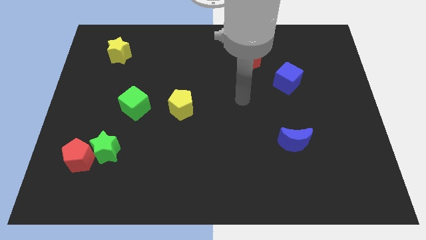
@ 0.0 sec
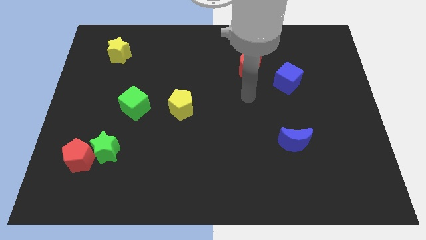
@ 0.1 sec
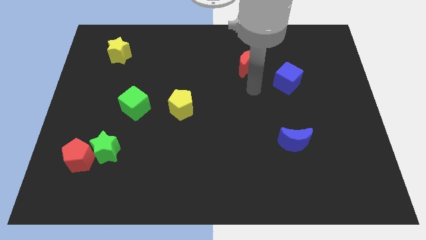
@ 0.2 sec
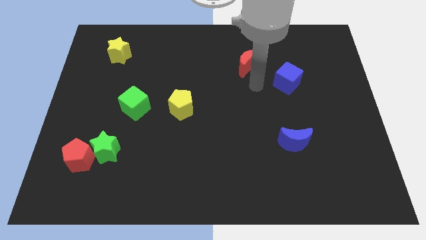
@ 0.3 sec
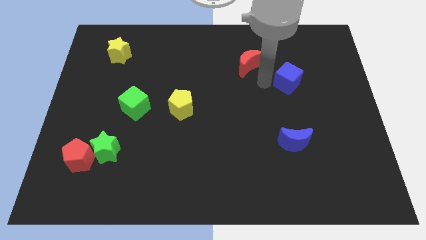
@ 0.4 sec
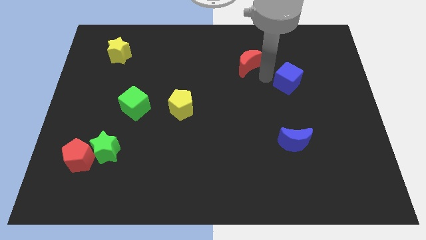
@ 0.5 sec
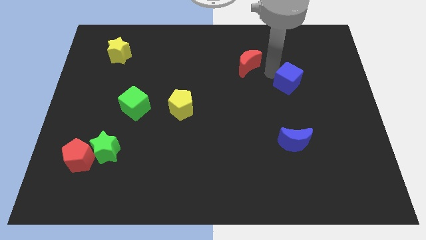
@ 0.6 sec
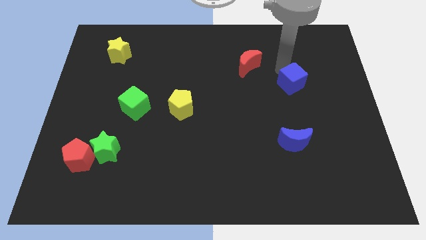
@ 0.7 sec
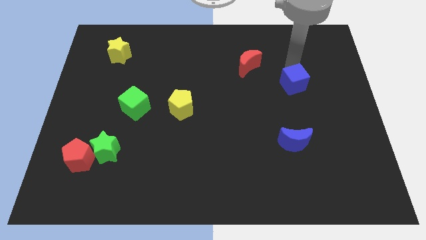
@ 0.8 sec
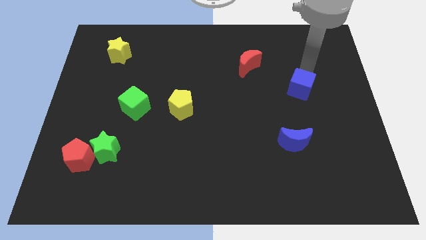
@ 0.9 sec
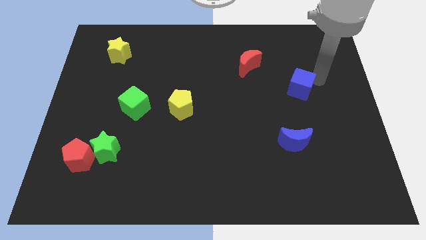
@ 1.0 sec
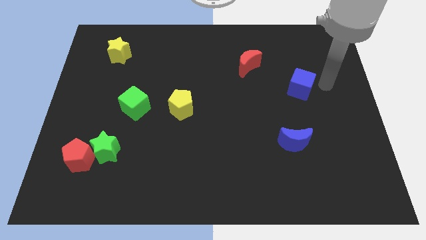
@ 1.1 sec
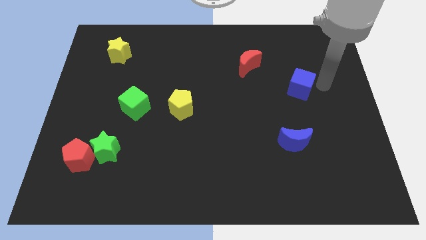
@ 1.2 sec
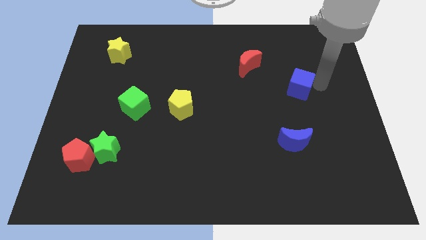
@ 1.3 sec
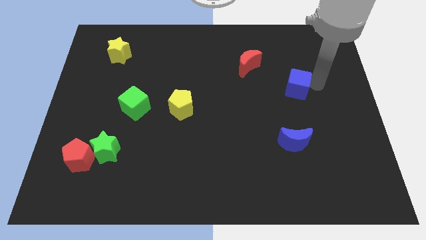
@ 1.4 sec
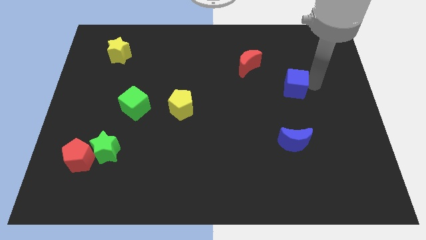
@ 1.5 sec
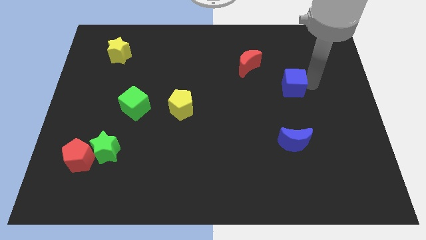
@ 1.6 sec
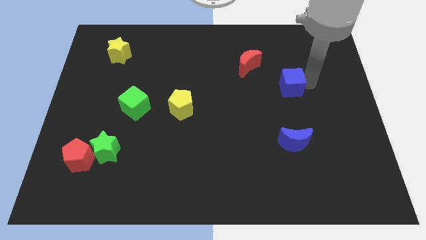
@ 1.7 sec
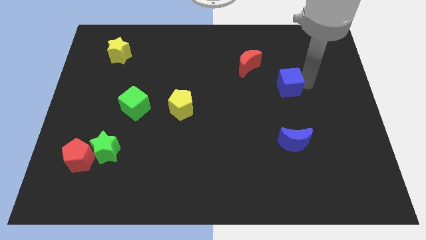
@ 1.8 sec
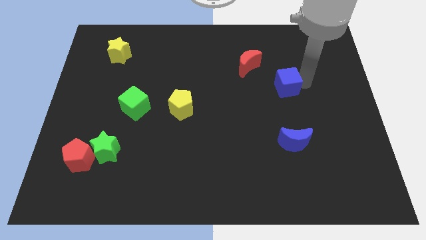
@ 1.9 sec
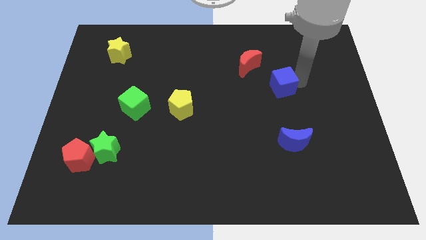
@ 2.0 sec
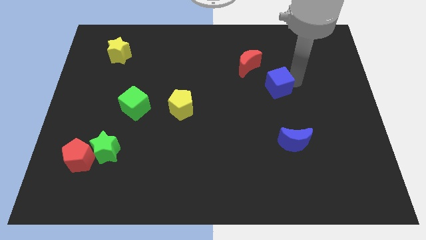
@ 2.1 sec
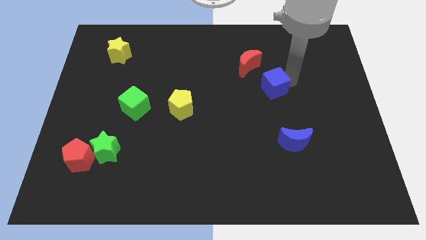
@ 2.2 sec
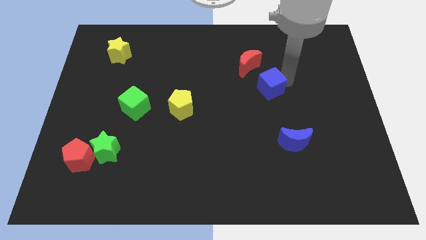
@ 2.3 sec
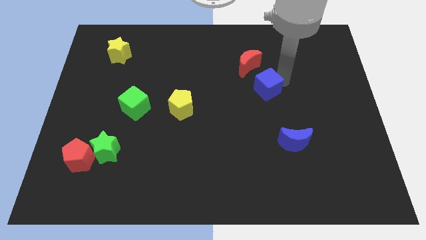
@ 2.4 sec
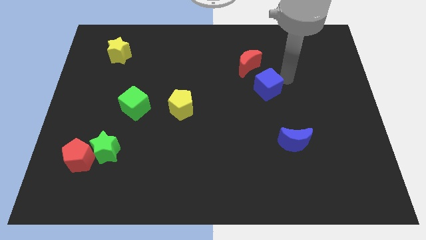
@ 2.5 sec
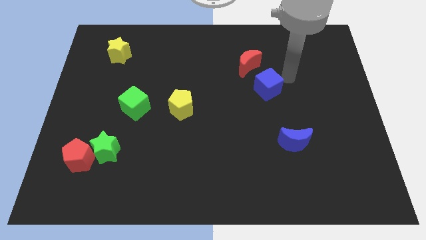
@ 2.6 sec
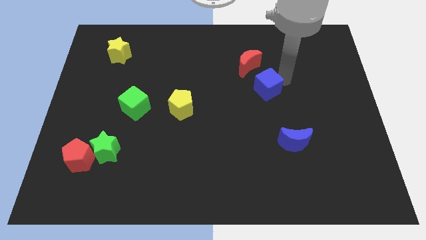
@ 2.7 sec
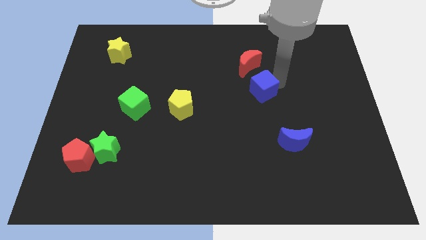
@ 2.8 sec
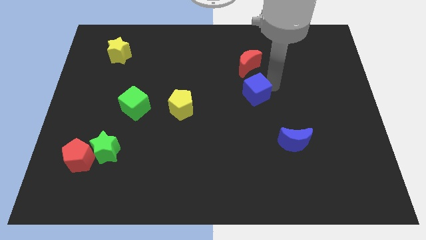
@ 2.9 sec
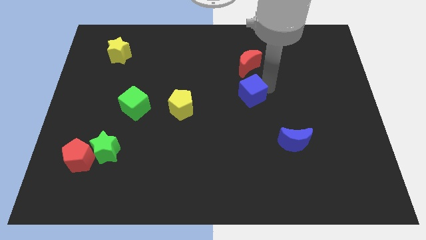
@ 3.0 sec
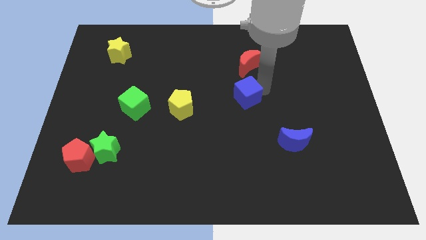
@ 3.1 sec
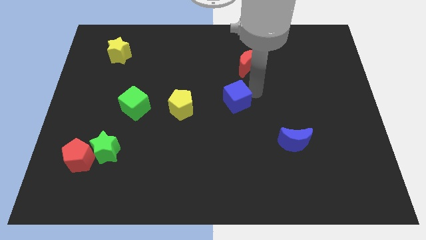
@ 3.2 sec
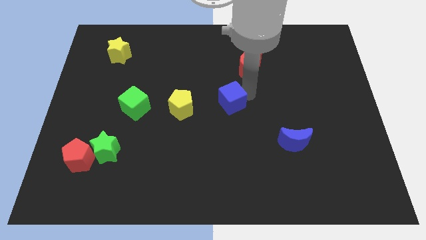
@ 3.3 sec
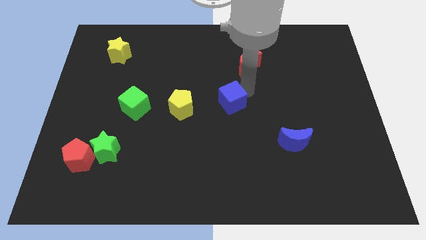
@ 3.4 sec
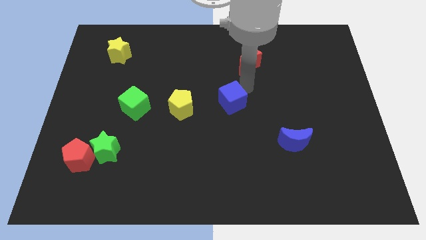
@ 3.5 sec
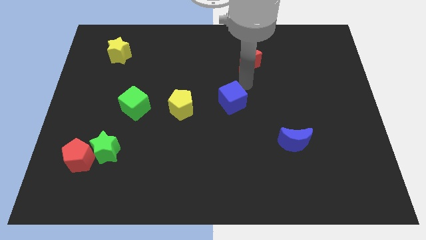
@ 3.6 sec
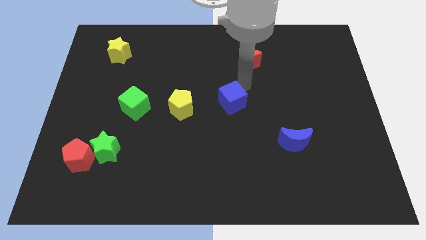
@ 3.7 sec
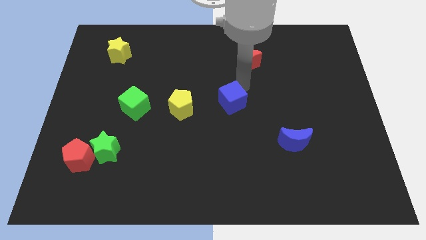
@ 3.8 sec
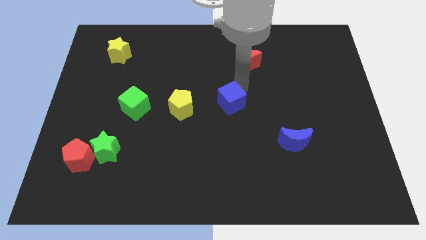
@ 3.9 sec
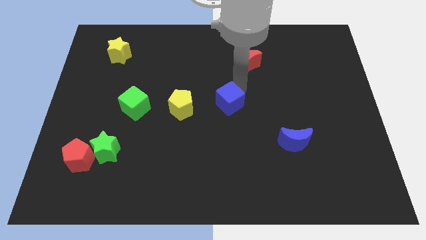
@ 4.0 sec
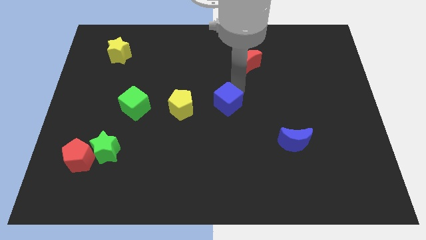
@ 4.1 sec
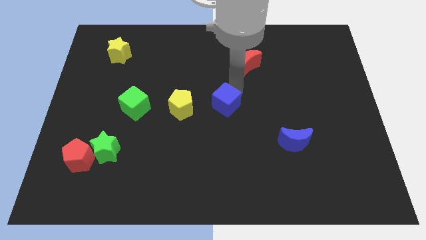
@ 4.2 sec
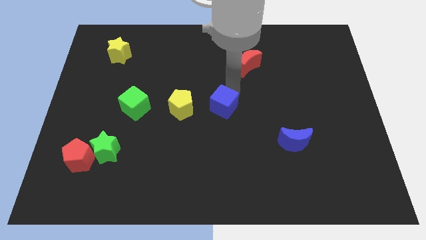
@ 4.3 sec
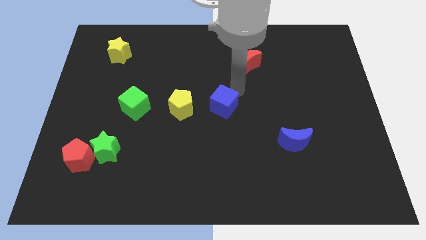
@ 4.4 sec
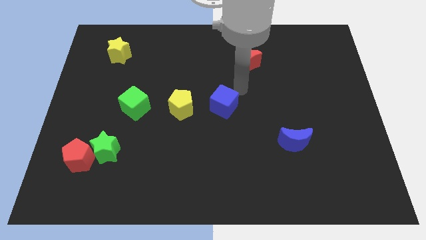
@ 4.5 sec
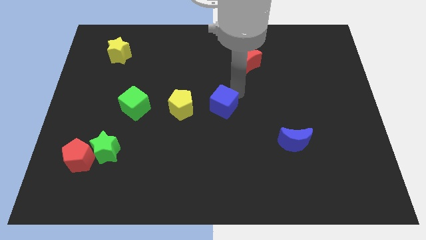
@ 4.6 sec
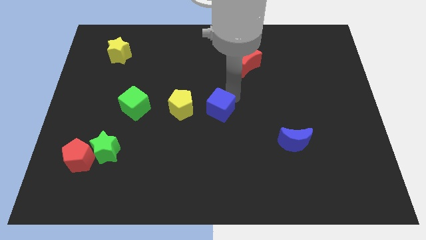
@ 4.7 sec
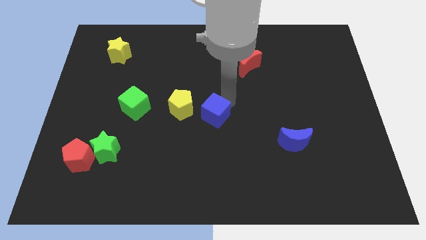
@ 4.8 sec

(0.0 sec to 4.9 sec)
move the blue cube to the bottom right of the yellow pentagon

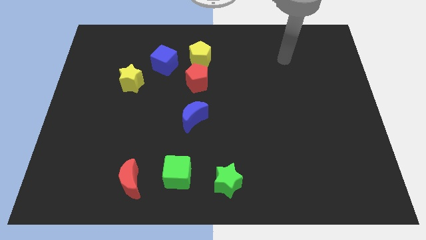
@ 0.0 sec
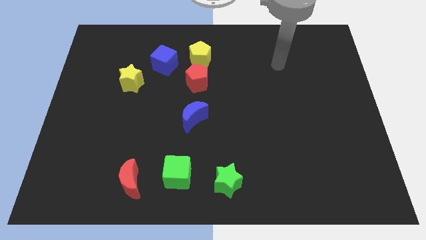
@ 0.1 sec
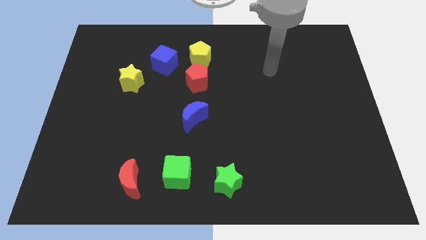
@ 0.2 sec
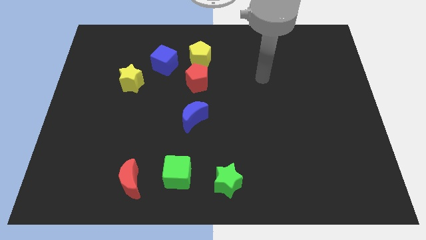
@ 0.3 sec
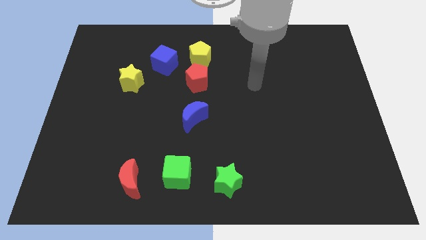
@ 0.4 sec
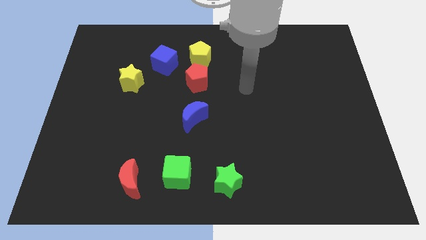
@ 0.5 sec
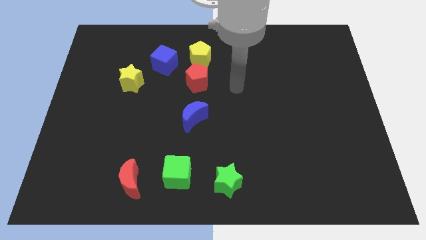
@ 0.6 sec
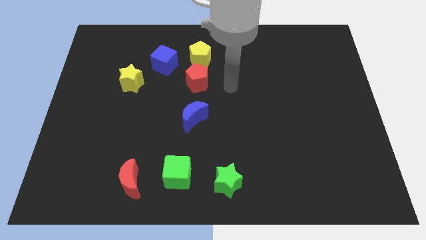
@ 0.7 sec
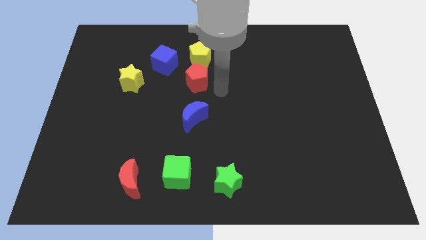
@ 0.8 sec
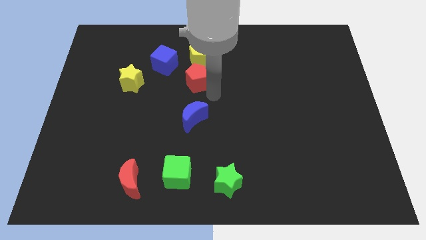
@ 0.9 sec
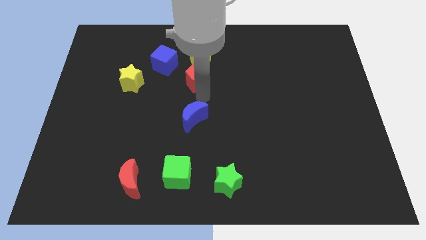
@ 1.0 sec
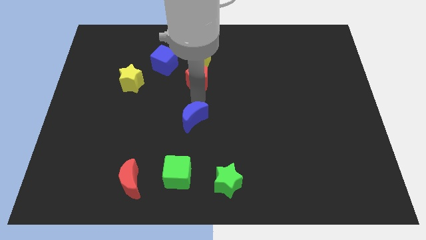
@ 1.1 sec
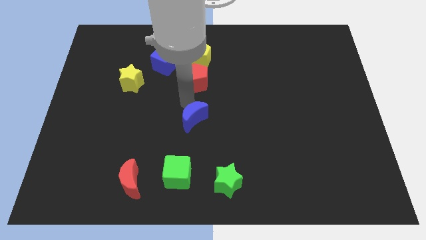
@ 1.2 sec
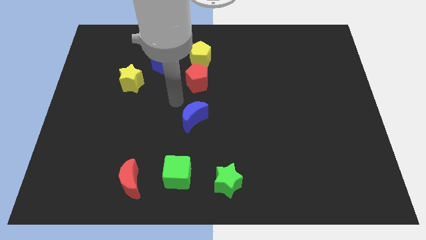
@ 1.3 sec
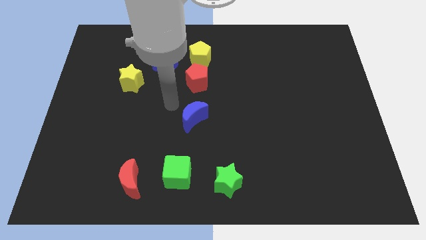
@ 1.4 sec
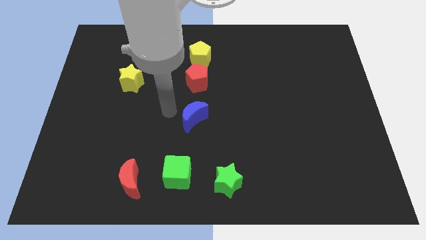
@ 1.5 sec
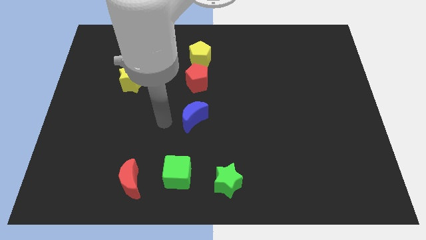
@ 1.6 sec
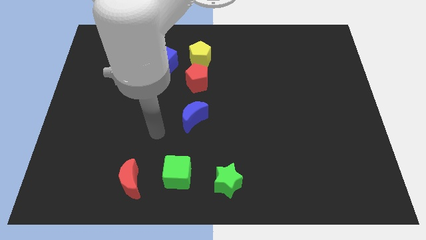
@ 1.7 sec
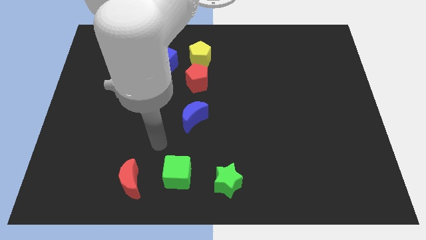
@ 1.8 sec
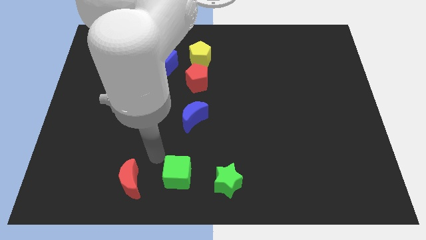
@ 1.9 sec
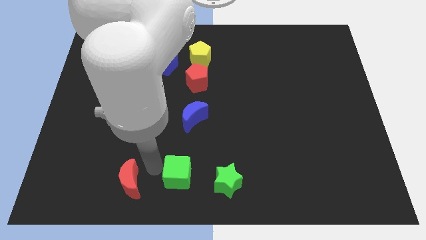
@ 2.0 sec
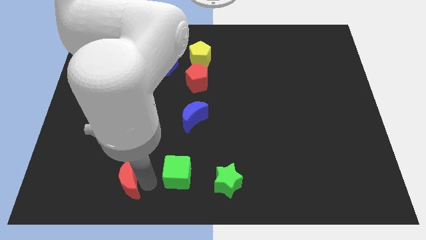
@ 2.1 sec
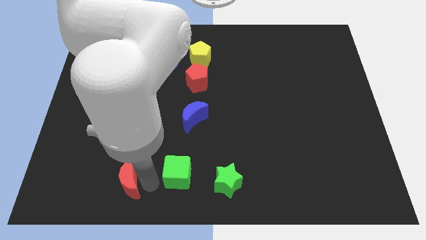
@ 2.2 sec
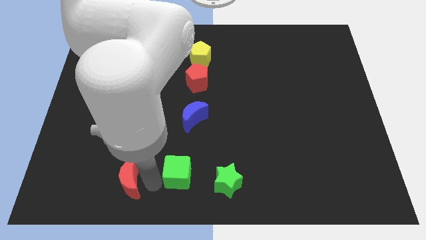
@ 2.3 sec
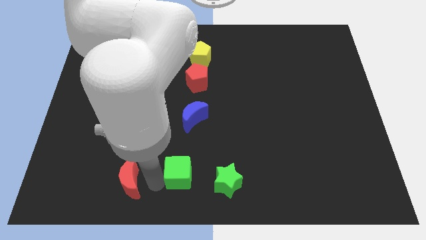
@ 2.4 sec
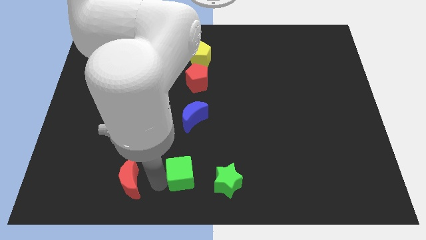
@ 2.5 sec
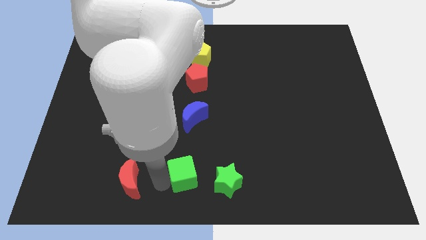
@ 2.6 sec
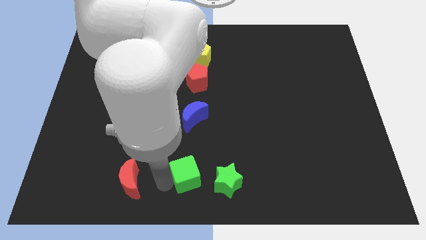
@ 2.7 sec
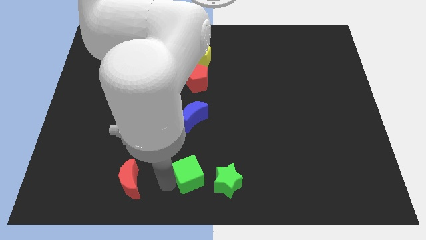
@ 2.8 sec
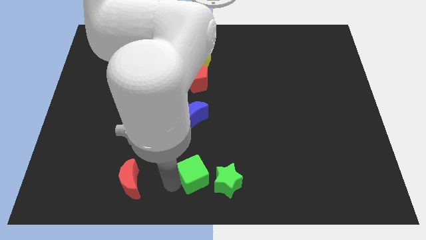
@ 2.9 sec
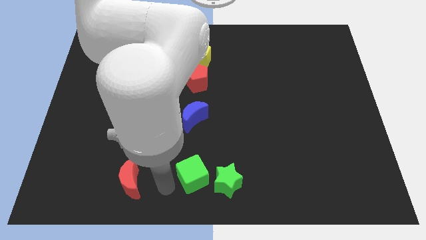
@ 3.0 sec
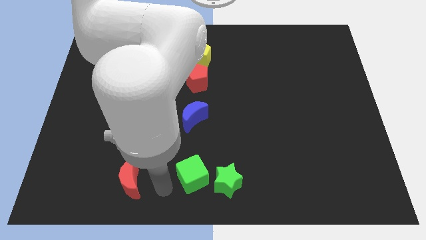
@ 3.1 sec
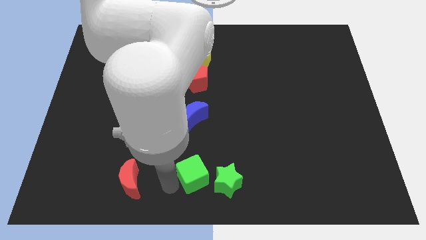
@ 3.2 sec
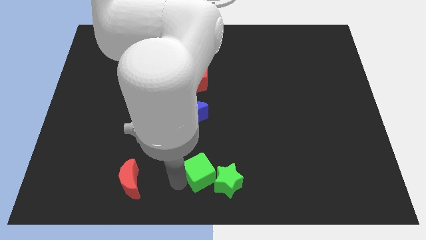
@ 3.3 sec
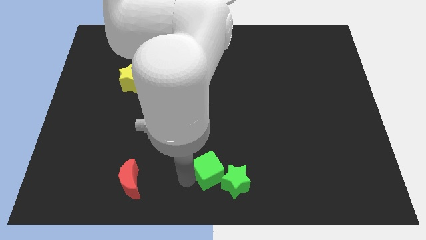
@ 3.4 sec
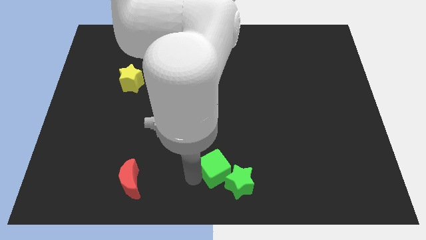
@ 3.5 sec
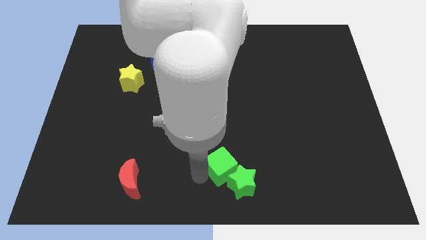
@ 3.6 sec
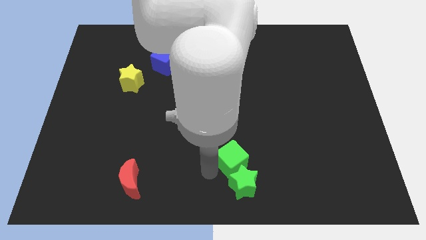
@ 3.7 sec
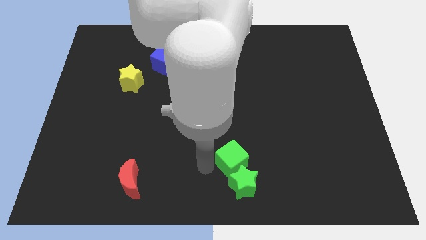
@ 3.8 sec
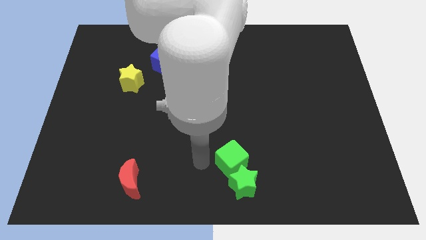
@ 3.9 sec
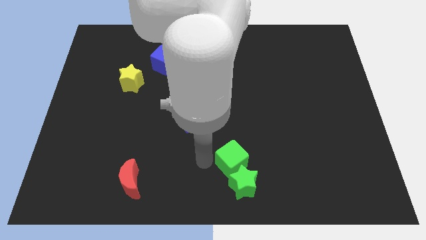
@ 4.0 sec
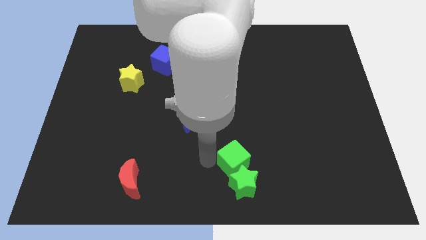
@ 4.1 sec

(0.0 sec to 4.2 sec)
move the green cube diagonally up and to the right of the green star
